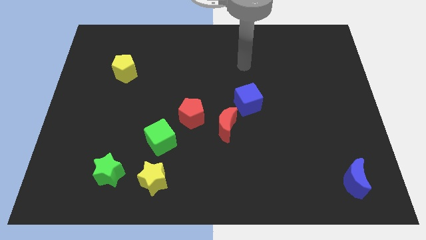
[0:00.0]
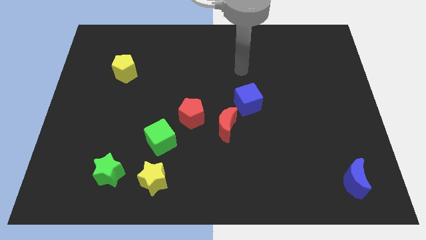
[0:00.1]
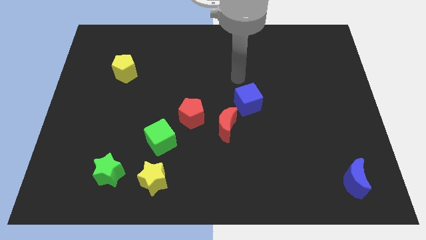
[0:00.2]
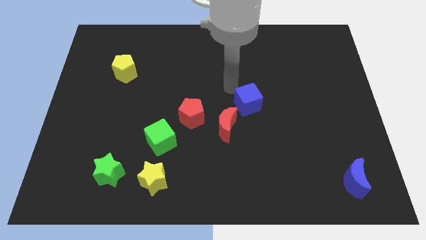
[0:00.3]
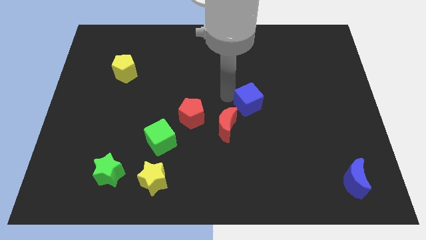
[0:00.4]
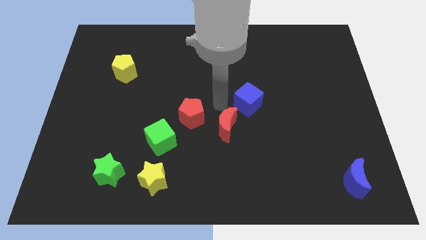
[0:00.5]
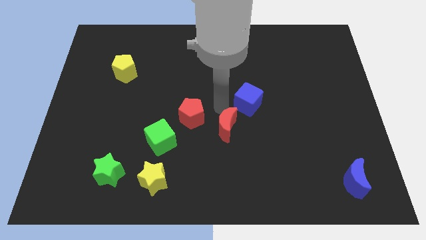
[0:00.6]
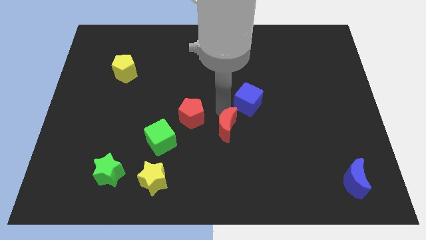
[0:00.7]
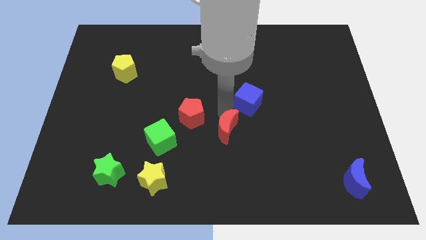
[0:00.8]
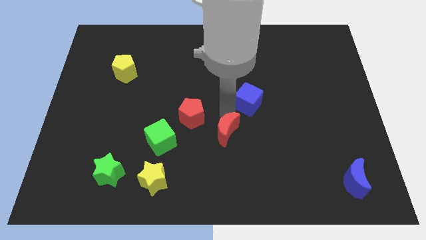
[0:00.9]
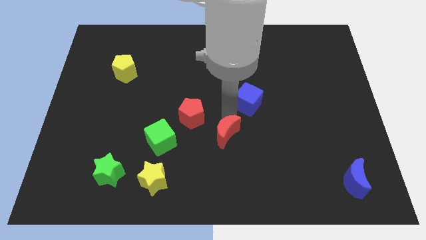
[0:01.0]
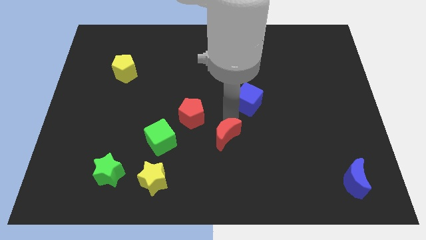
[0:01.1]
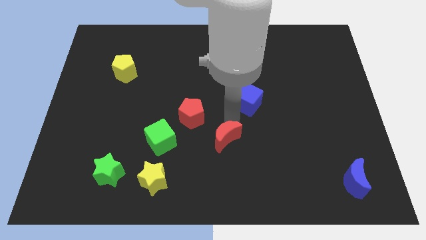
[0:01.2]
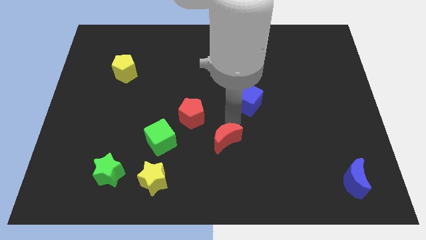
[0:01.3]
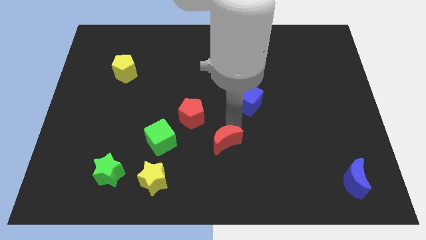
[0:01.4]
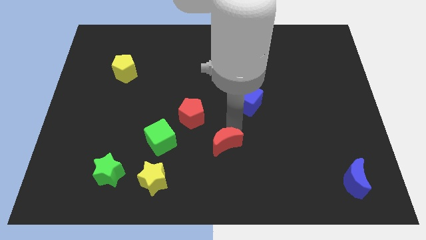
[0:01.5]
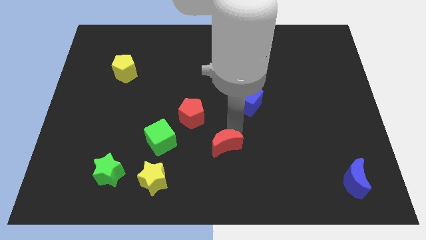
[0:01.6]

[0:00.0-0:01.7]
move the red moon away from the red pentagon and blue cube

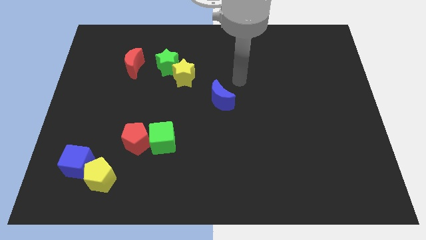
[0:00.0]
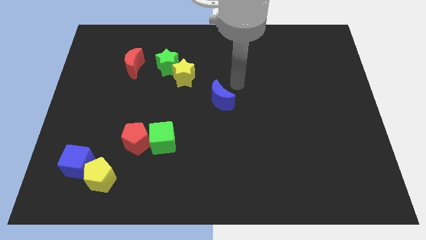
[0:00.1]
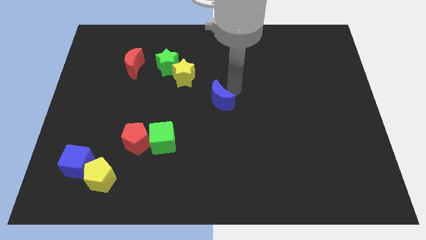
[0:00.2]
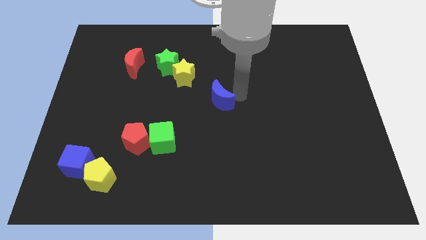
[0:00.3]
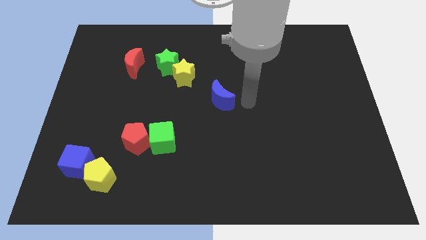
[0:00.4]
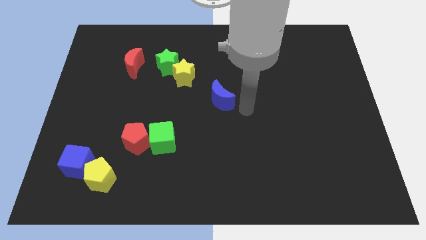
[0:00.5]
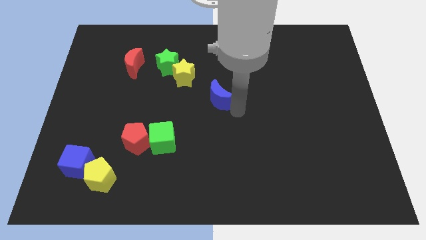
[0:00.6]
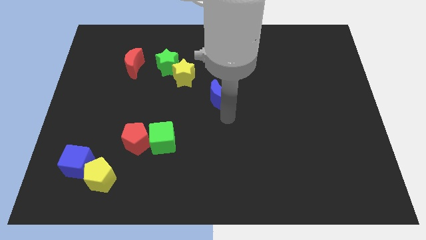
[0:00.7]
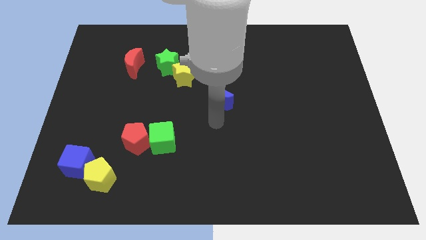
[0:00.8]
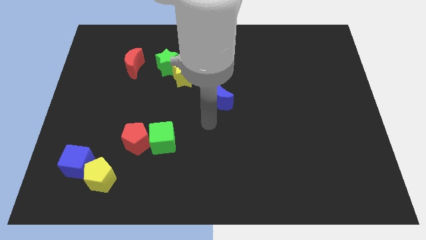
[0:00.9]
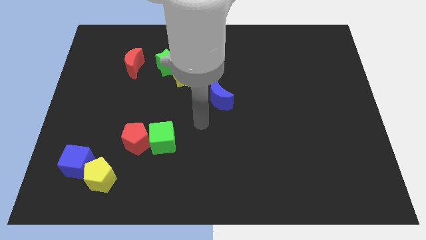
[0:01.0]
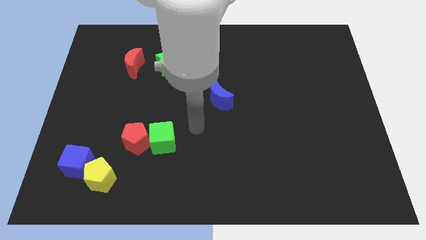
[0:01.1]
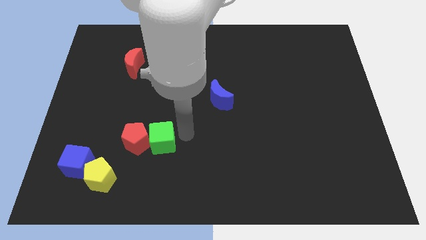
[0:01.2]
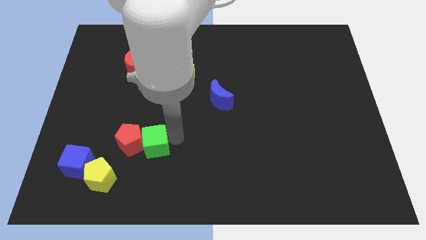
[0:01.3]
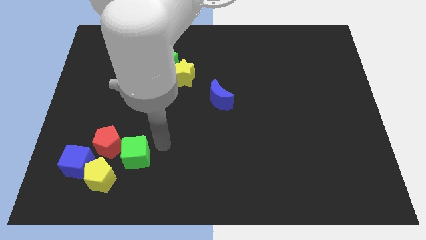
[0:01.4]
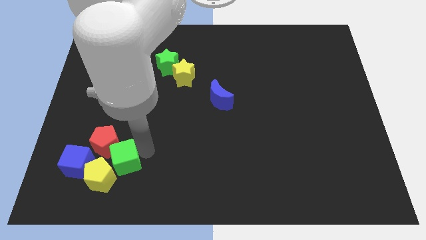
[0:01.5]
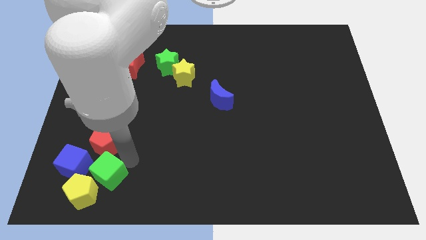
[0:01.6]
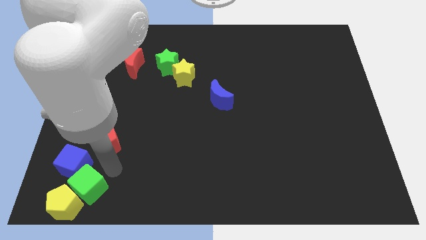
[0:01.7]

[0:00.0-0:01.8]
separate the red pentagon from the green cube

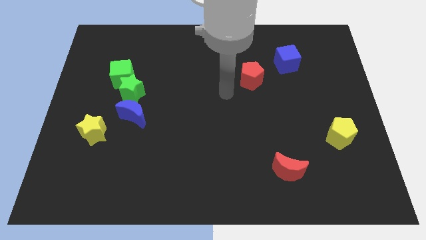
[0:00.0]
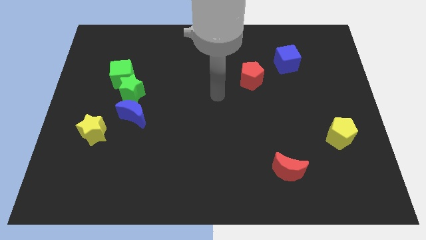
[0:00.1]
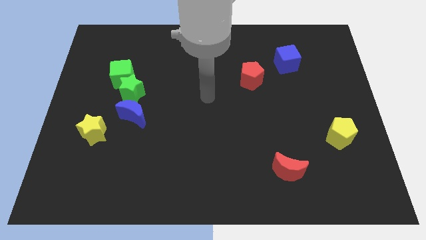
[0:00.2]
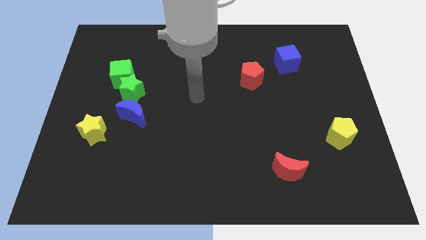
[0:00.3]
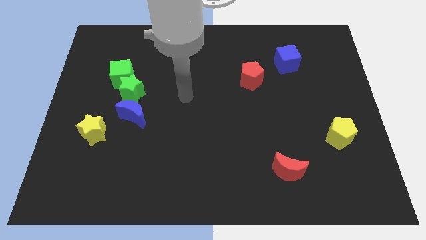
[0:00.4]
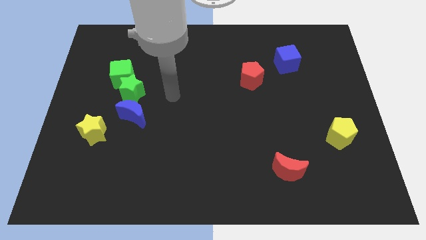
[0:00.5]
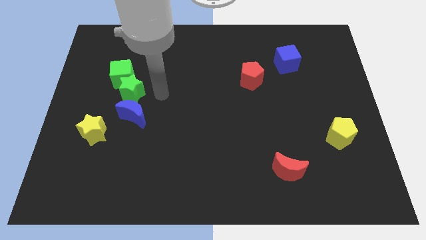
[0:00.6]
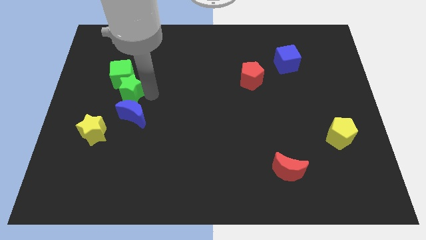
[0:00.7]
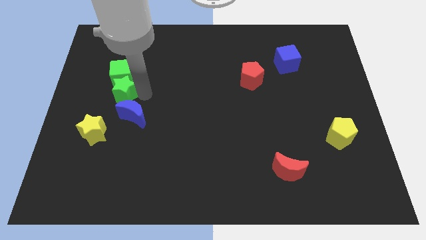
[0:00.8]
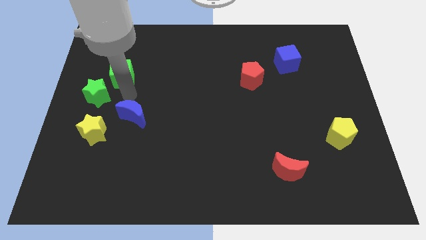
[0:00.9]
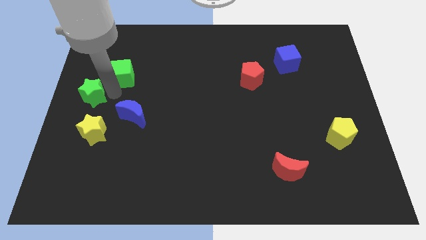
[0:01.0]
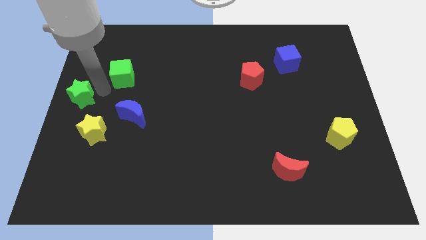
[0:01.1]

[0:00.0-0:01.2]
pull the green cube apart from the green star

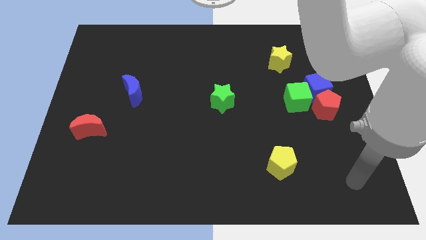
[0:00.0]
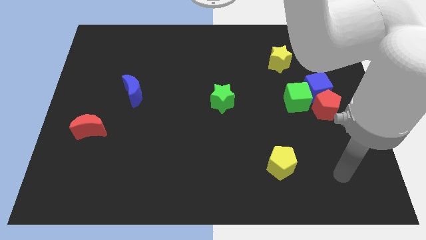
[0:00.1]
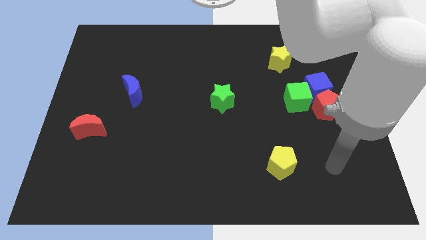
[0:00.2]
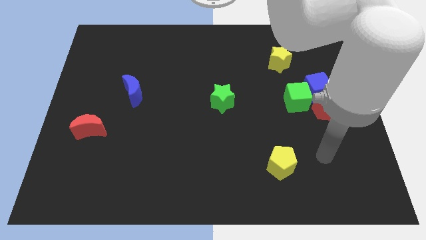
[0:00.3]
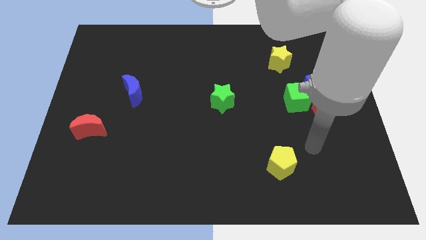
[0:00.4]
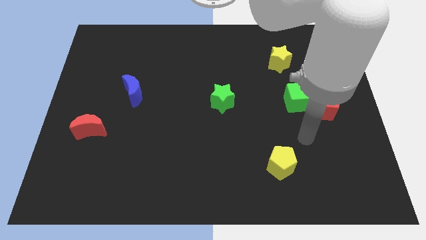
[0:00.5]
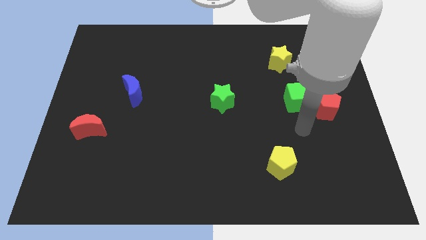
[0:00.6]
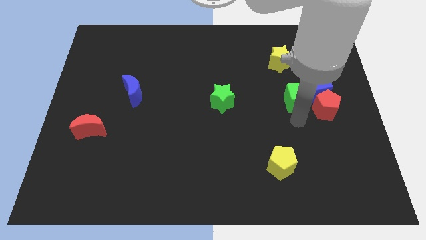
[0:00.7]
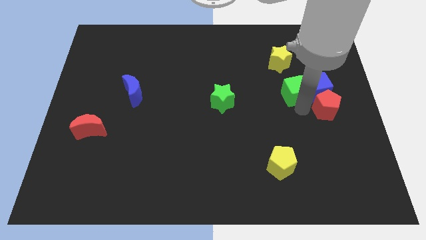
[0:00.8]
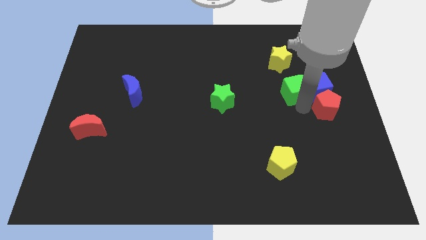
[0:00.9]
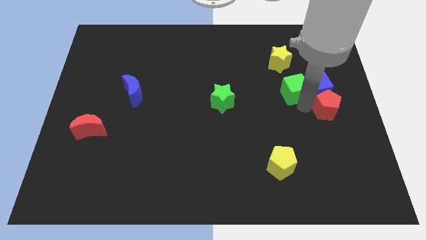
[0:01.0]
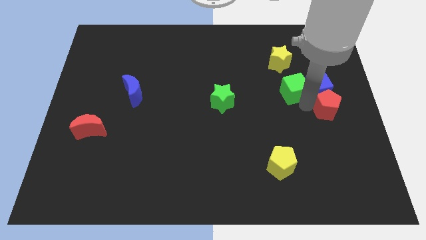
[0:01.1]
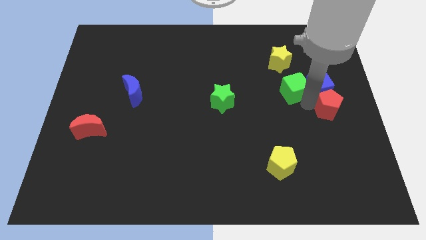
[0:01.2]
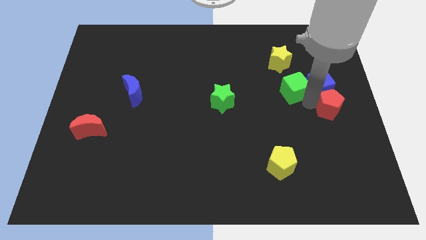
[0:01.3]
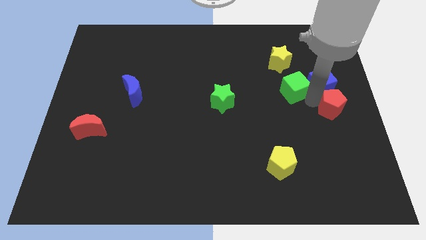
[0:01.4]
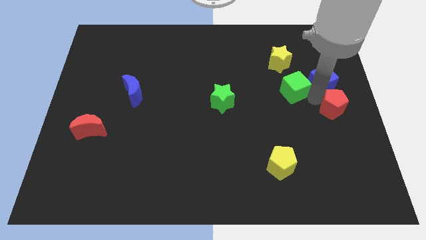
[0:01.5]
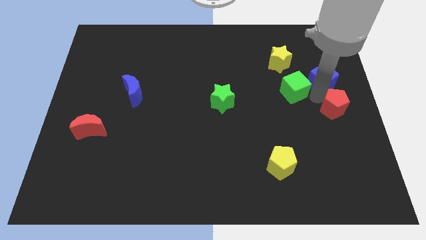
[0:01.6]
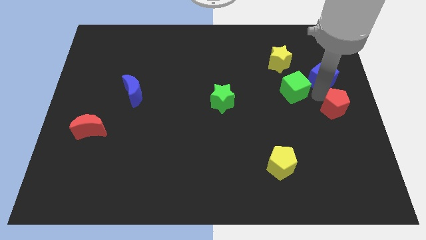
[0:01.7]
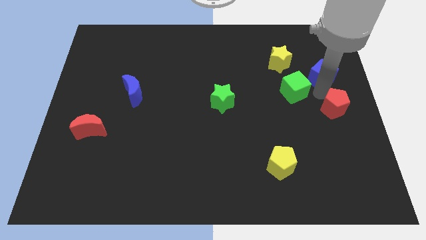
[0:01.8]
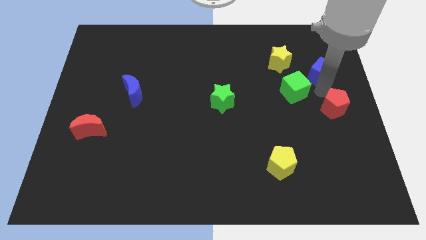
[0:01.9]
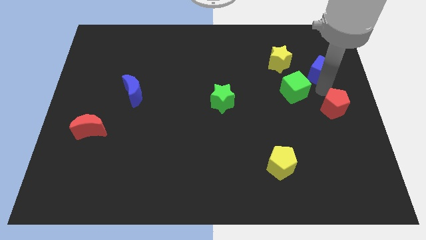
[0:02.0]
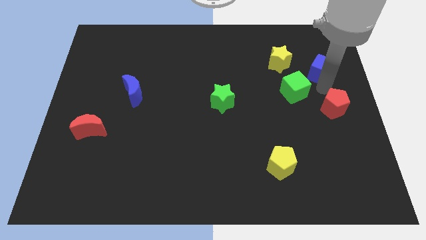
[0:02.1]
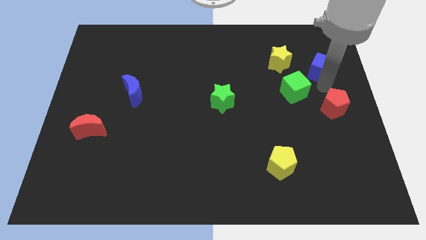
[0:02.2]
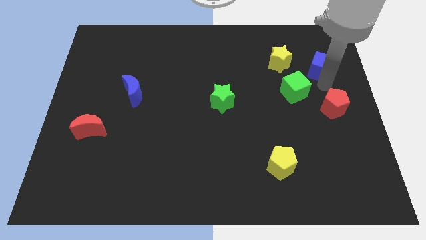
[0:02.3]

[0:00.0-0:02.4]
separate the blue cube from the red pentagon and green cube

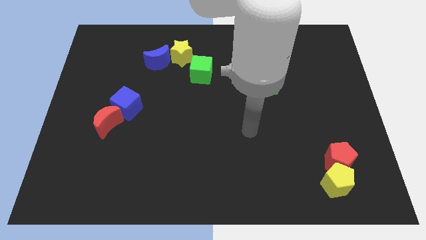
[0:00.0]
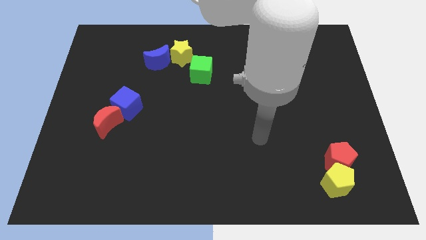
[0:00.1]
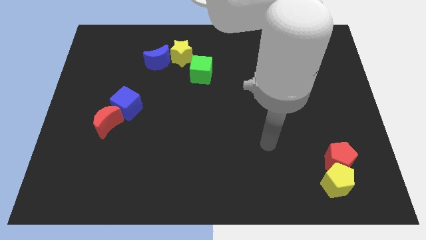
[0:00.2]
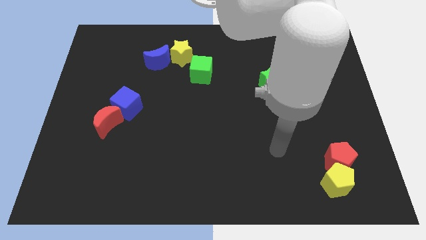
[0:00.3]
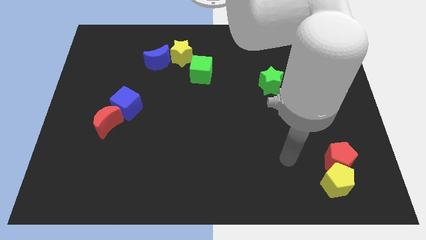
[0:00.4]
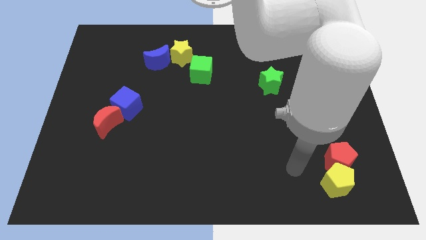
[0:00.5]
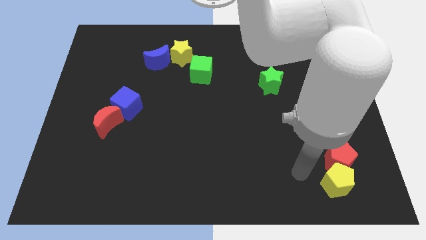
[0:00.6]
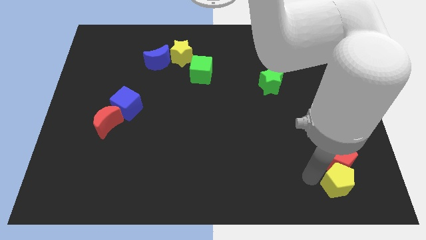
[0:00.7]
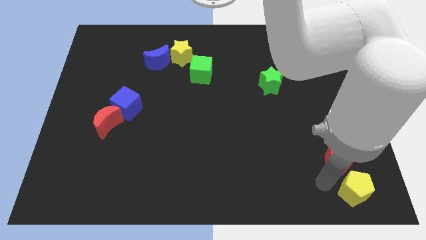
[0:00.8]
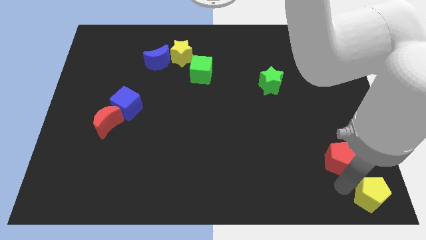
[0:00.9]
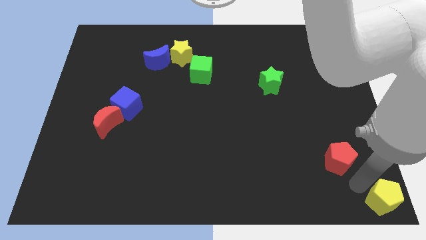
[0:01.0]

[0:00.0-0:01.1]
pull the red pentagon apart from the yellow pentagon

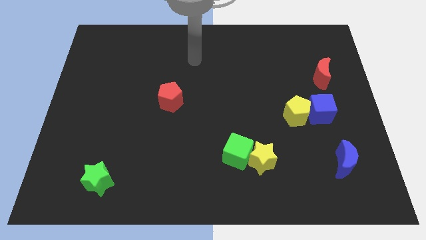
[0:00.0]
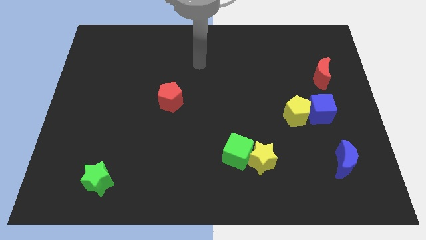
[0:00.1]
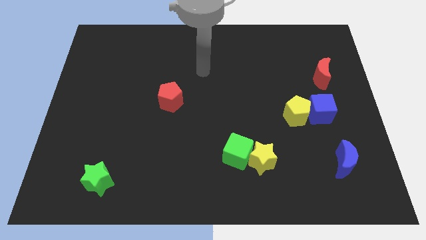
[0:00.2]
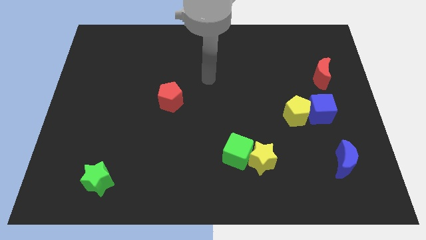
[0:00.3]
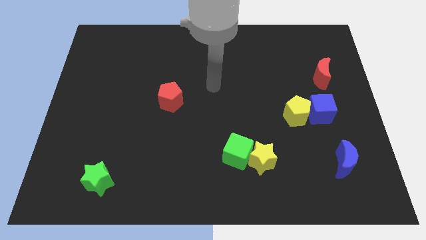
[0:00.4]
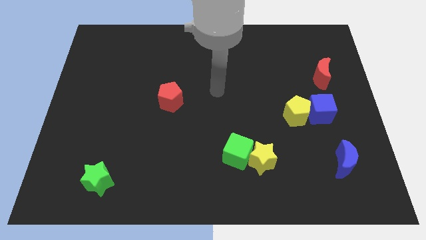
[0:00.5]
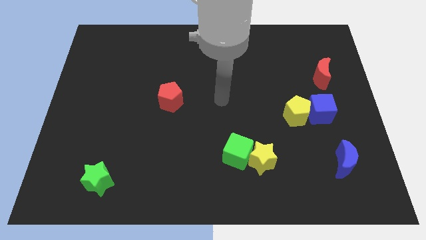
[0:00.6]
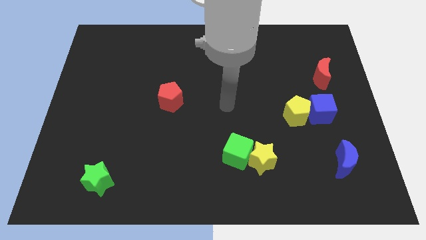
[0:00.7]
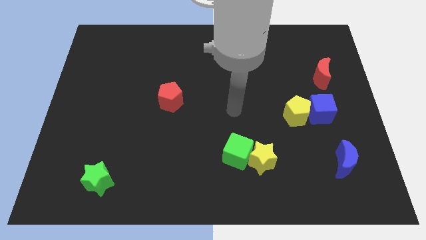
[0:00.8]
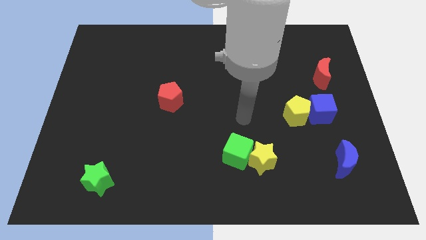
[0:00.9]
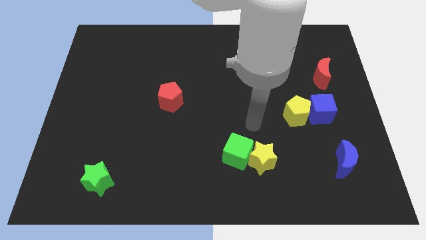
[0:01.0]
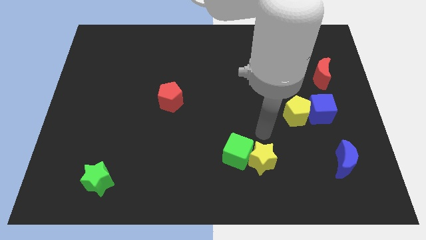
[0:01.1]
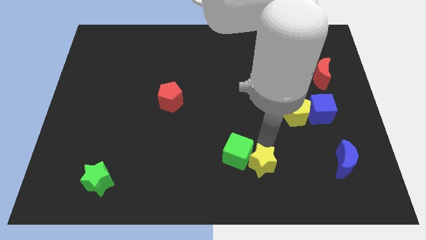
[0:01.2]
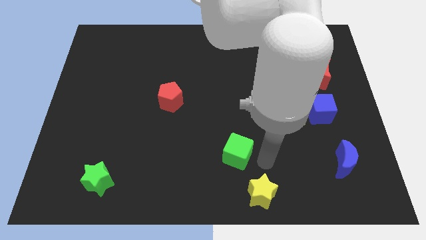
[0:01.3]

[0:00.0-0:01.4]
pull the green cube apart from the yellow star
